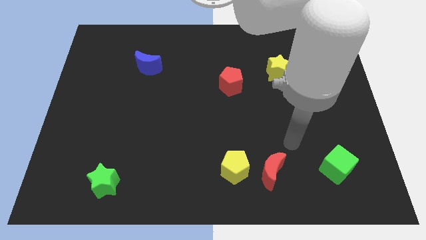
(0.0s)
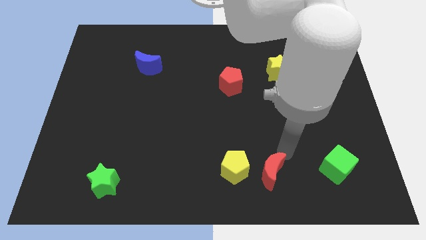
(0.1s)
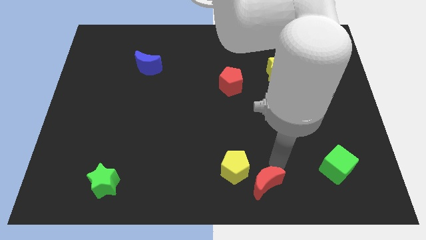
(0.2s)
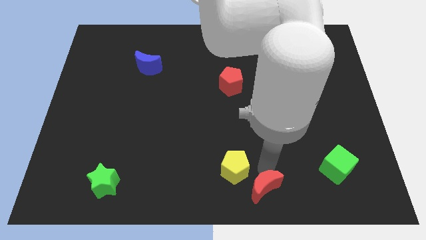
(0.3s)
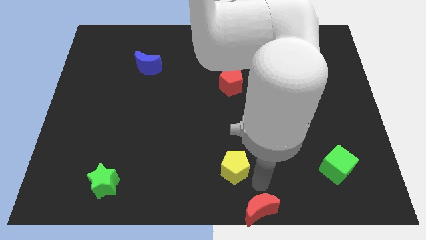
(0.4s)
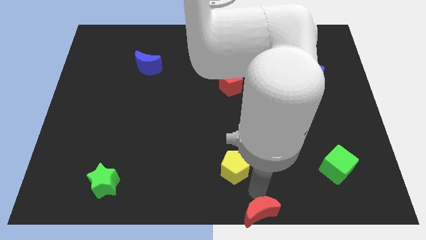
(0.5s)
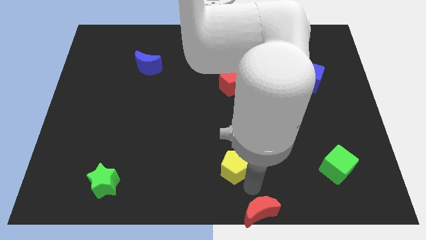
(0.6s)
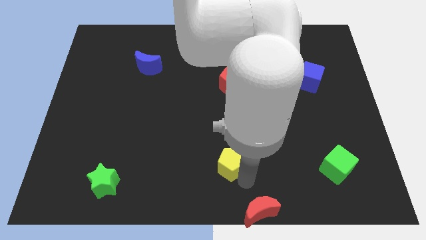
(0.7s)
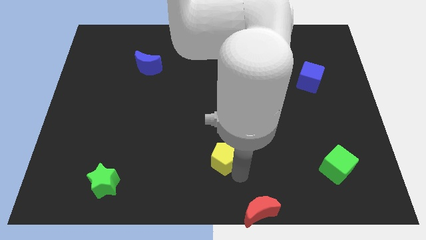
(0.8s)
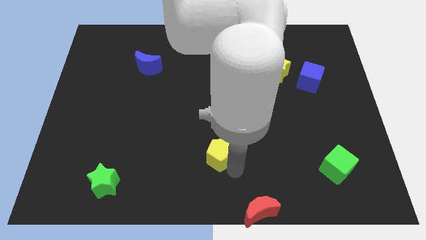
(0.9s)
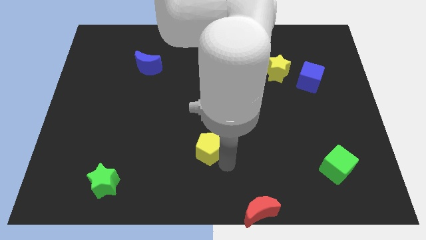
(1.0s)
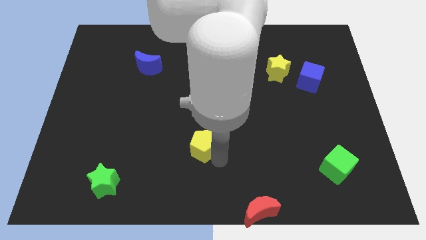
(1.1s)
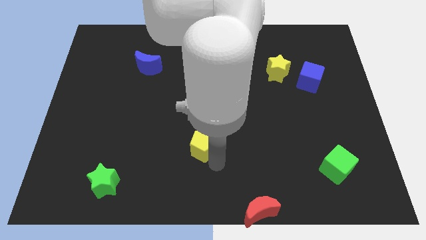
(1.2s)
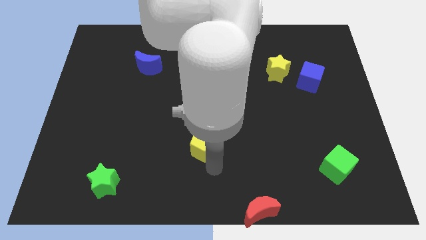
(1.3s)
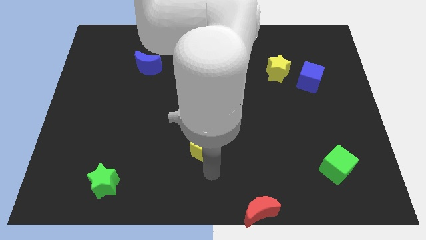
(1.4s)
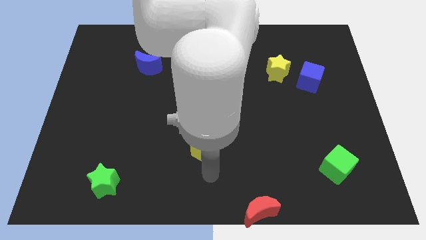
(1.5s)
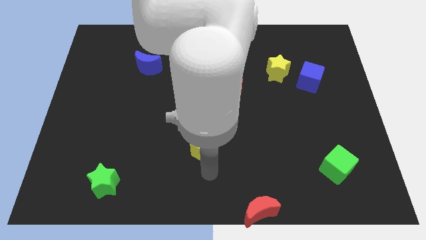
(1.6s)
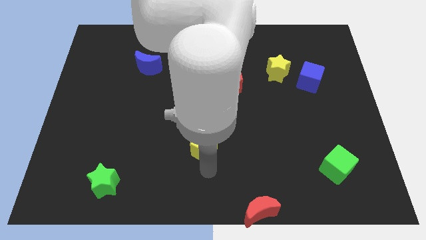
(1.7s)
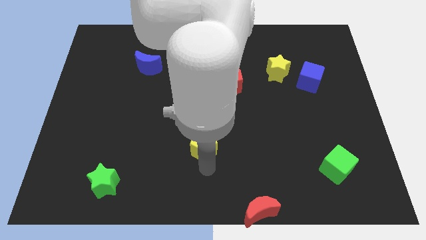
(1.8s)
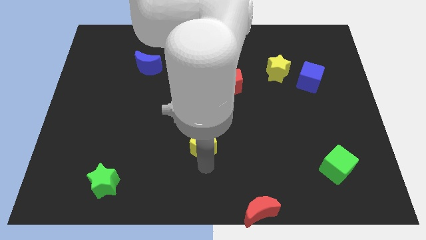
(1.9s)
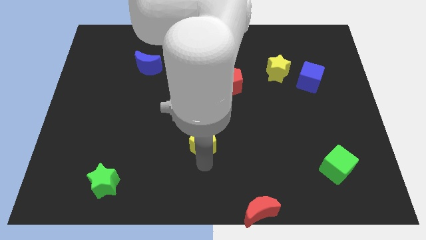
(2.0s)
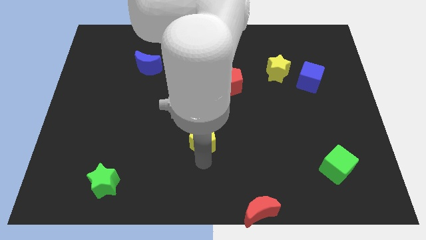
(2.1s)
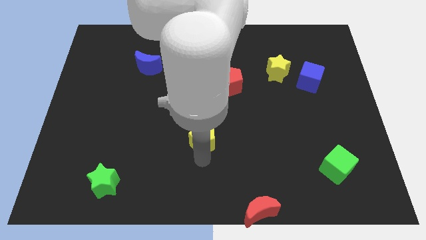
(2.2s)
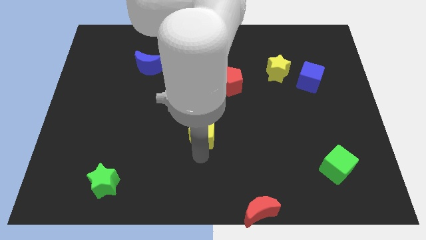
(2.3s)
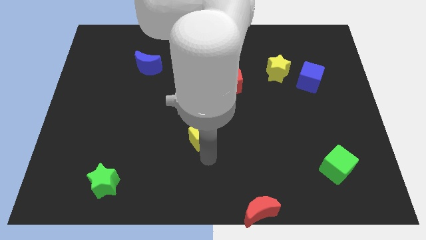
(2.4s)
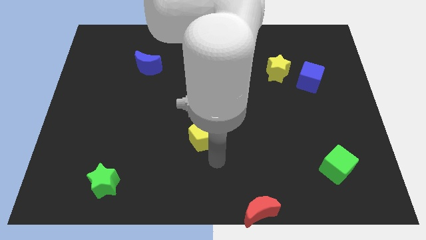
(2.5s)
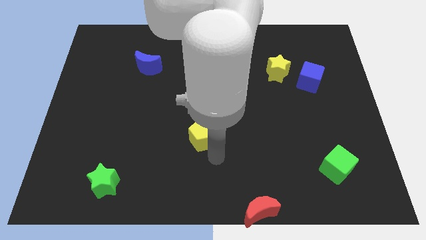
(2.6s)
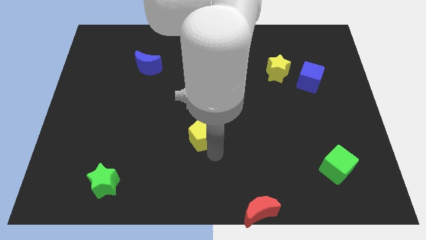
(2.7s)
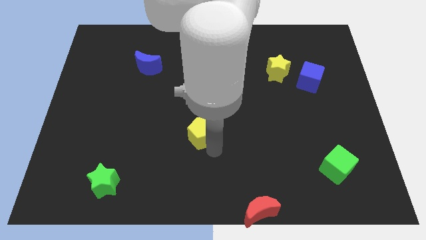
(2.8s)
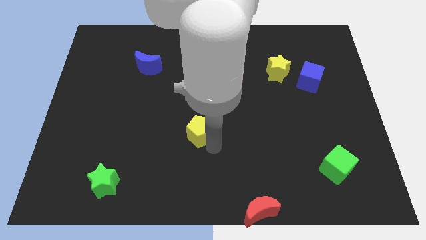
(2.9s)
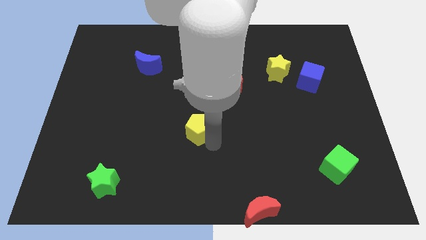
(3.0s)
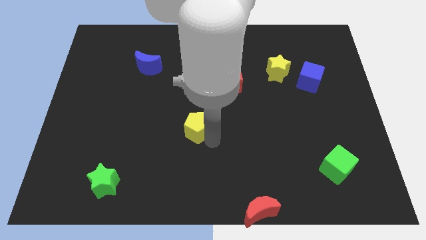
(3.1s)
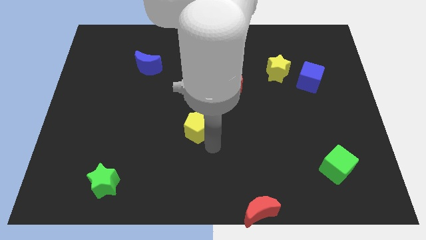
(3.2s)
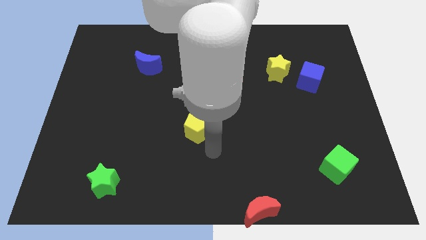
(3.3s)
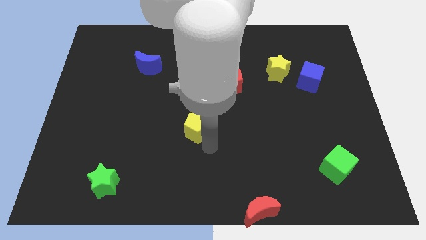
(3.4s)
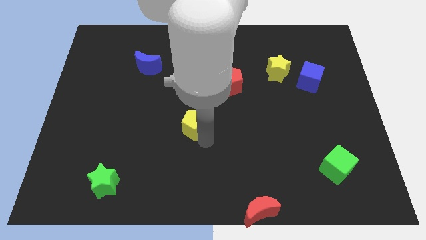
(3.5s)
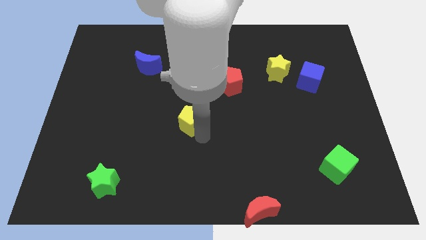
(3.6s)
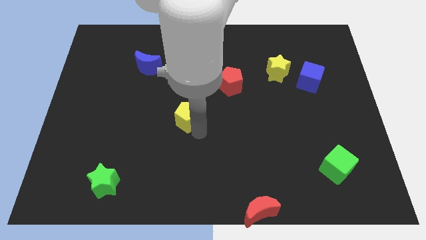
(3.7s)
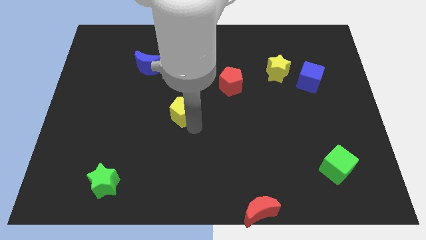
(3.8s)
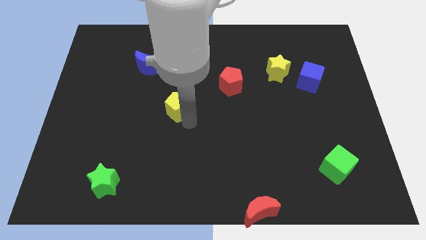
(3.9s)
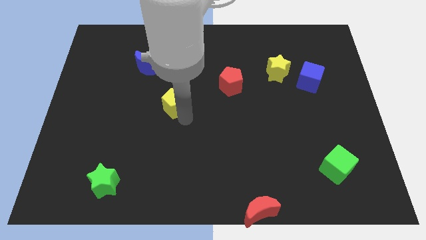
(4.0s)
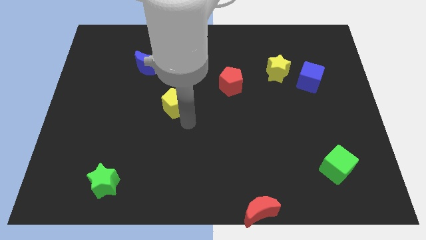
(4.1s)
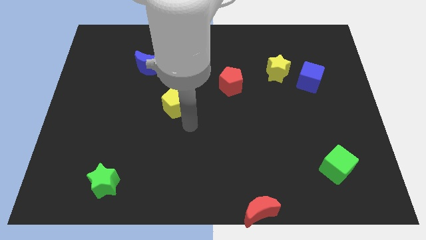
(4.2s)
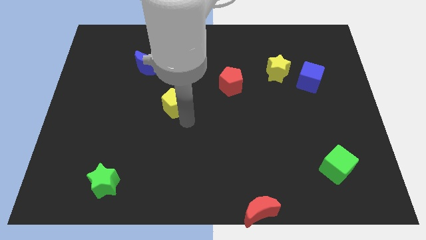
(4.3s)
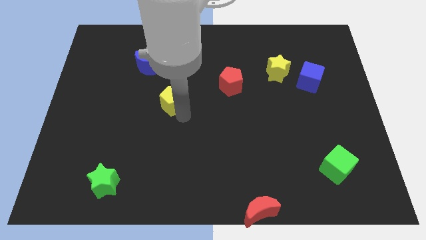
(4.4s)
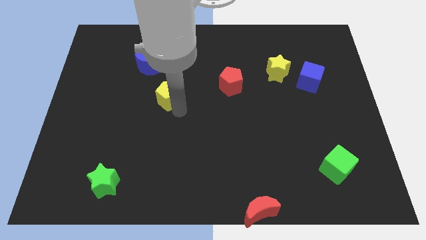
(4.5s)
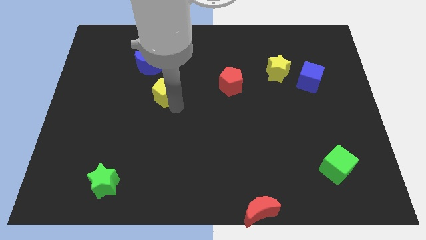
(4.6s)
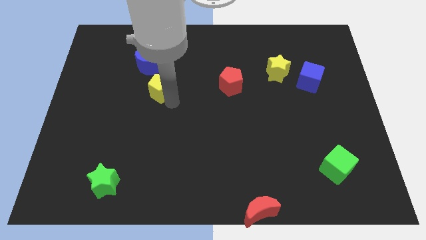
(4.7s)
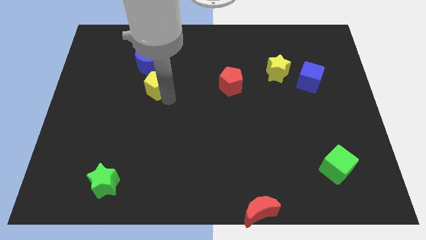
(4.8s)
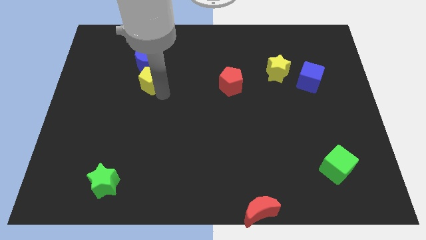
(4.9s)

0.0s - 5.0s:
move the yellow pentagon next to the blue moon

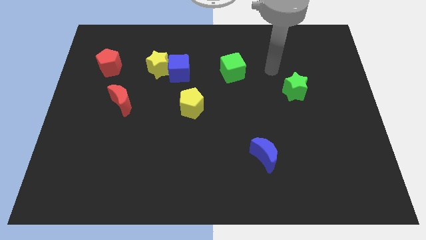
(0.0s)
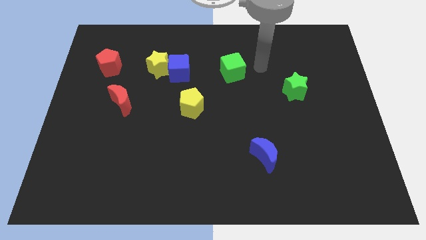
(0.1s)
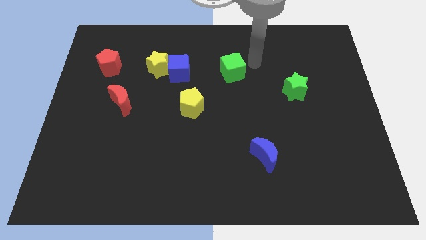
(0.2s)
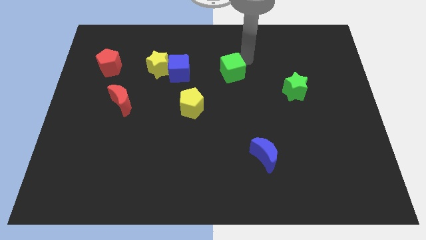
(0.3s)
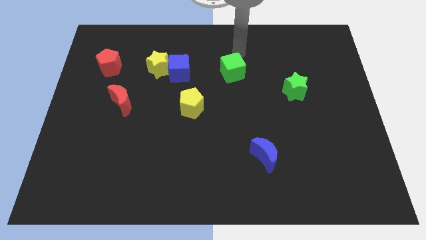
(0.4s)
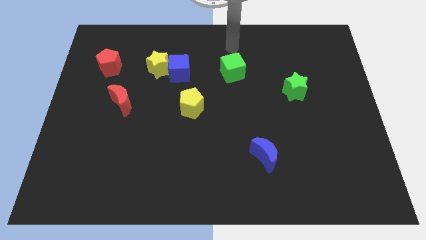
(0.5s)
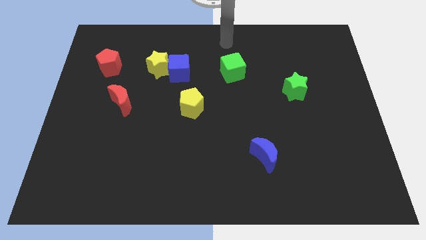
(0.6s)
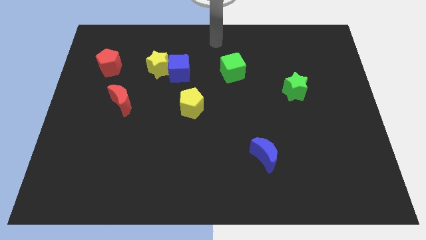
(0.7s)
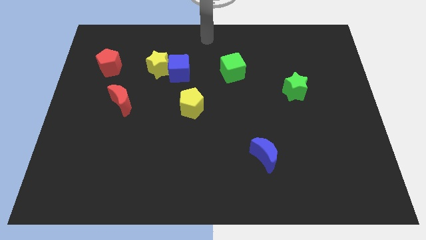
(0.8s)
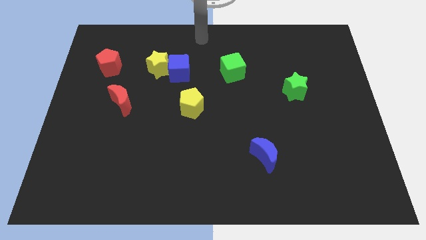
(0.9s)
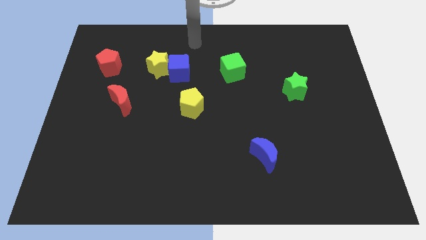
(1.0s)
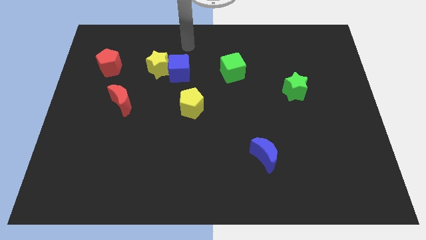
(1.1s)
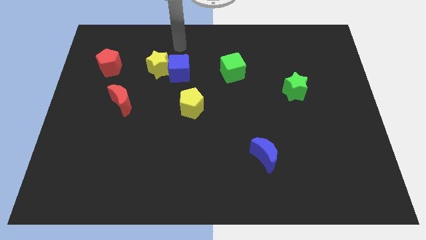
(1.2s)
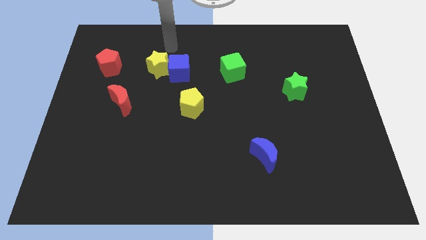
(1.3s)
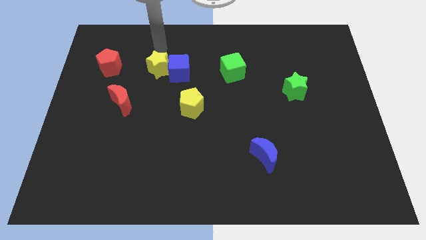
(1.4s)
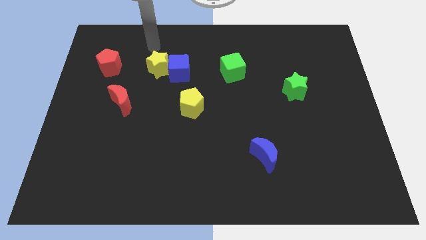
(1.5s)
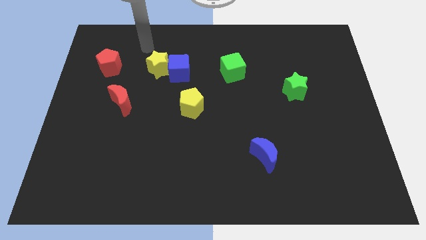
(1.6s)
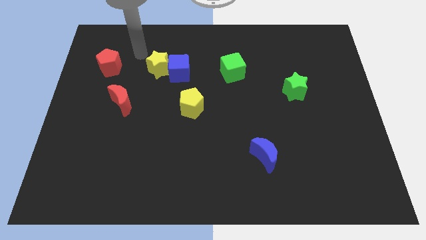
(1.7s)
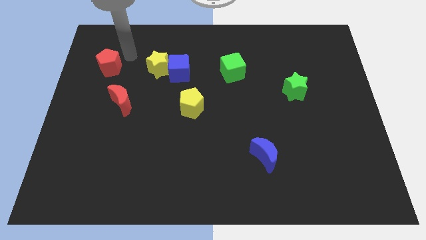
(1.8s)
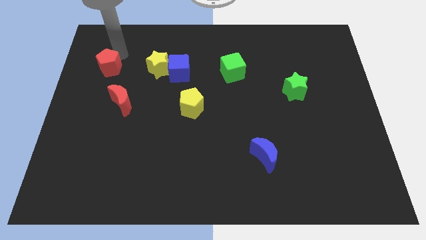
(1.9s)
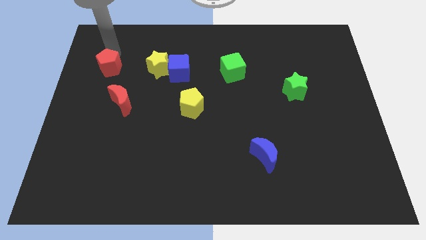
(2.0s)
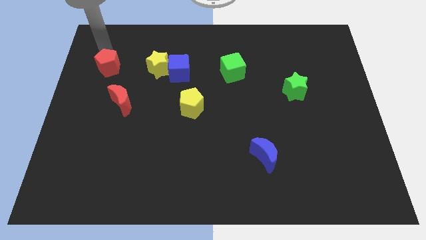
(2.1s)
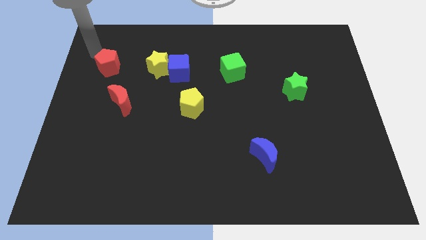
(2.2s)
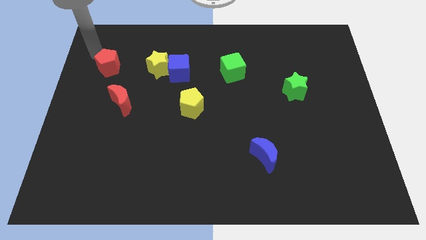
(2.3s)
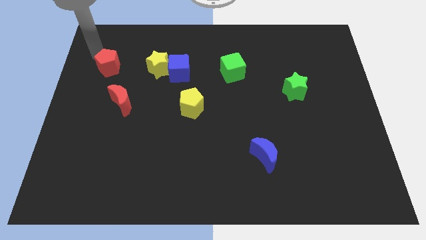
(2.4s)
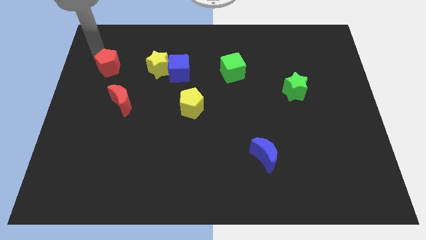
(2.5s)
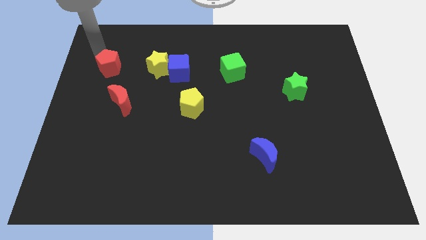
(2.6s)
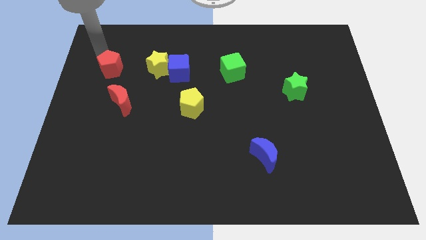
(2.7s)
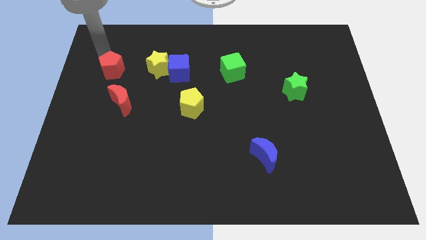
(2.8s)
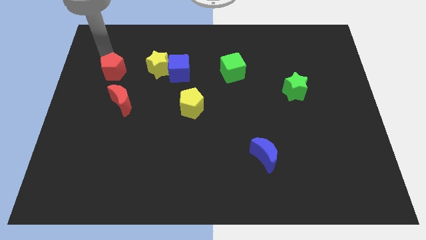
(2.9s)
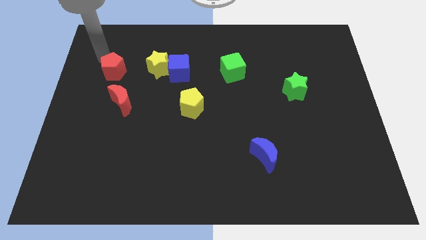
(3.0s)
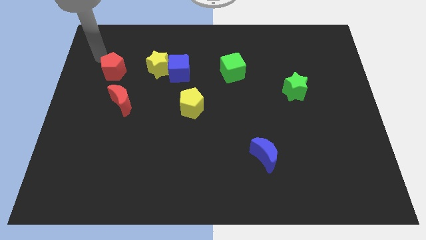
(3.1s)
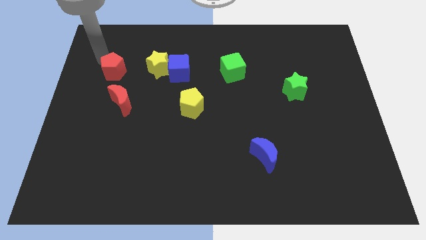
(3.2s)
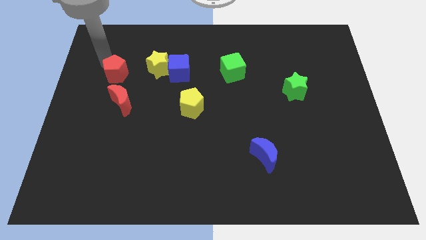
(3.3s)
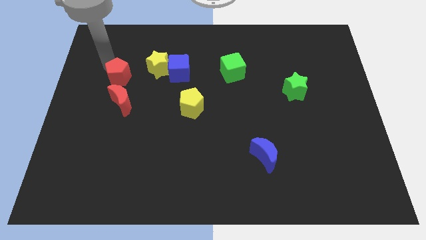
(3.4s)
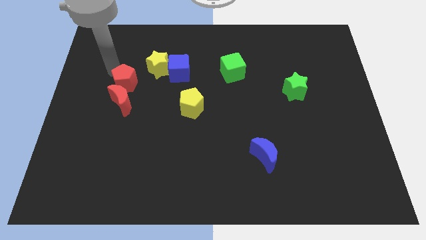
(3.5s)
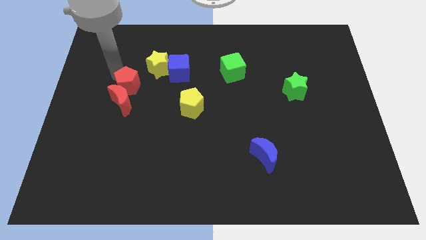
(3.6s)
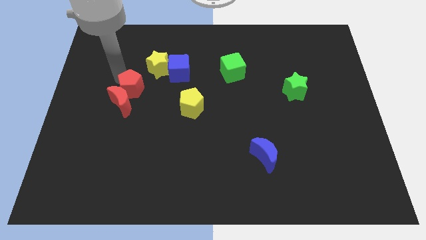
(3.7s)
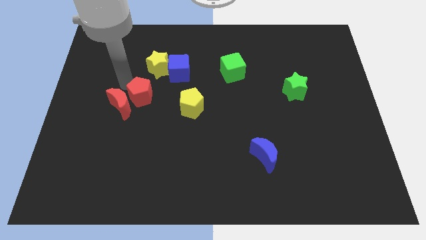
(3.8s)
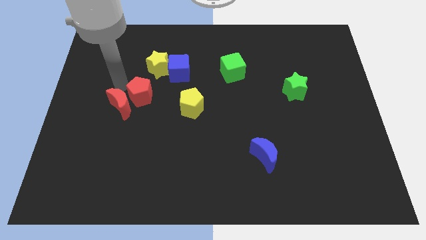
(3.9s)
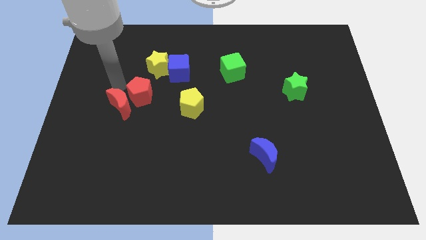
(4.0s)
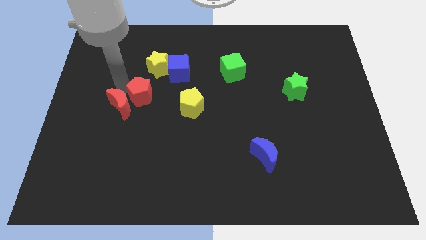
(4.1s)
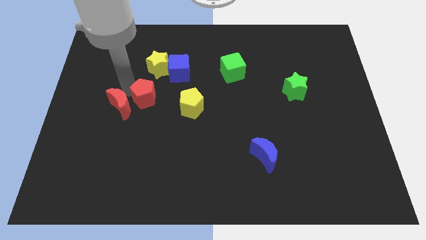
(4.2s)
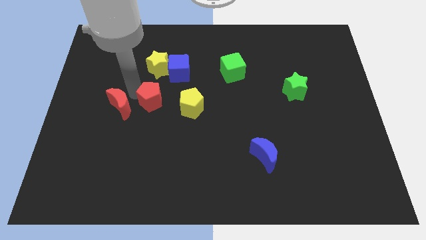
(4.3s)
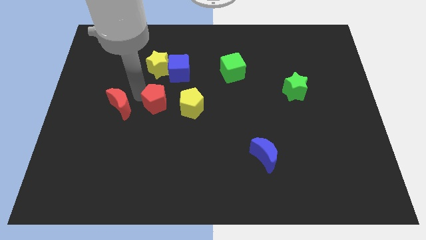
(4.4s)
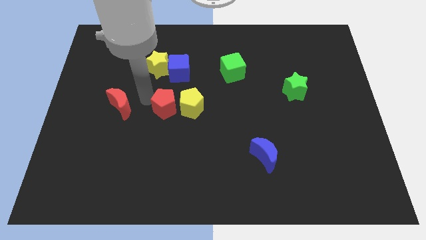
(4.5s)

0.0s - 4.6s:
put the red pentagon next to the yellow pentagon
